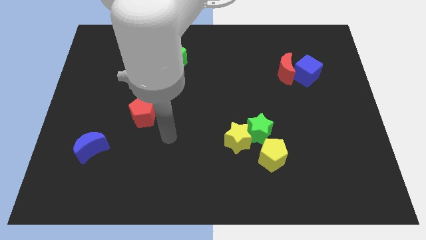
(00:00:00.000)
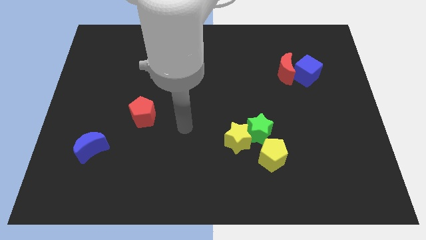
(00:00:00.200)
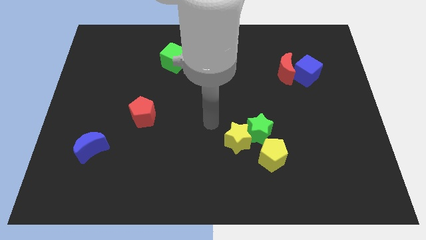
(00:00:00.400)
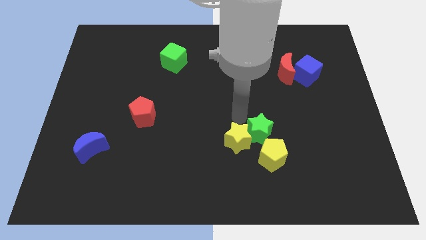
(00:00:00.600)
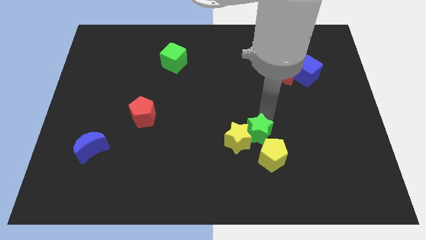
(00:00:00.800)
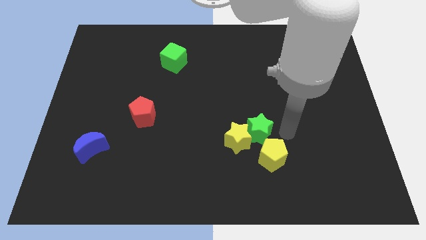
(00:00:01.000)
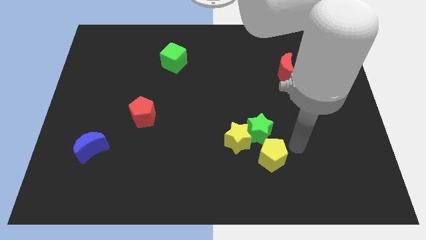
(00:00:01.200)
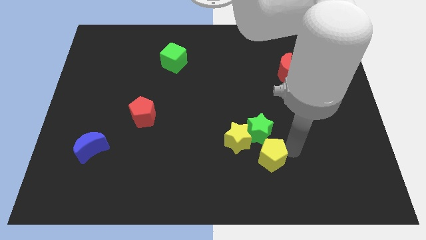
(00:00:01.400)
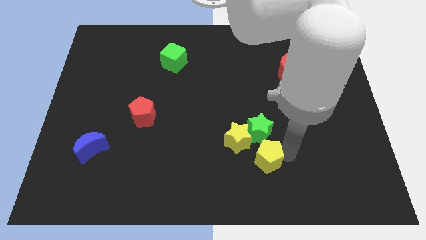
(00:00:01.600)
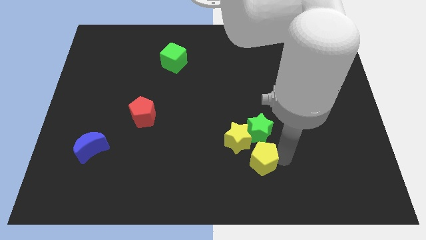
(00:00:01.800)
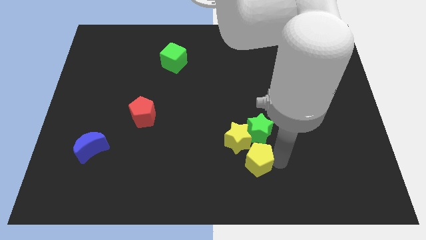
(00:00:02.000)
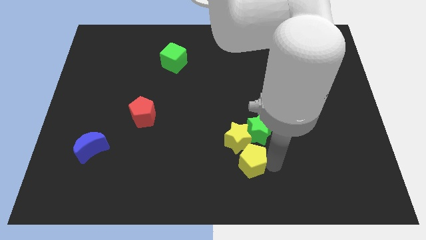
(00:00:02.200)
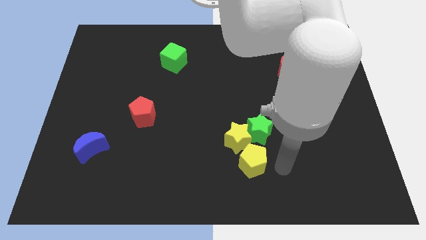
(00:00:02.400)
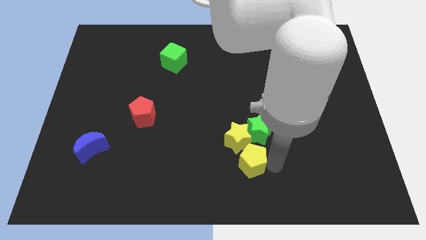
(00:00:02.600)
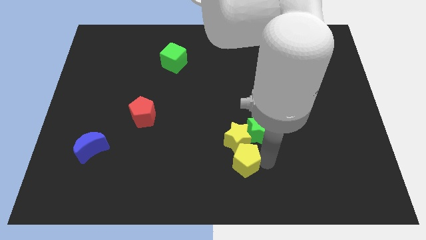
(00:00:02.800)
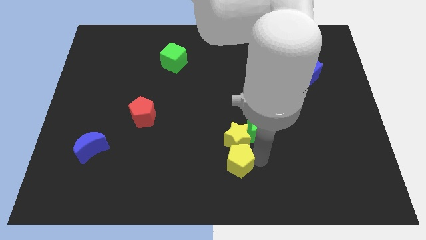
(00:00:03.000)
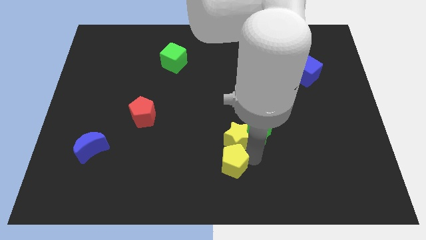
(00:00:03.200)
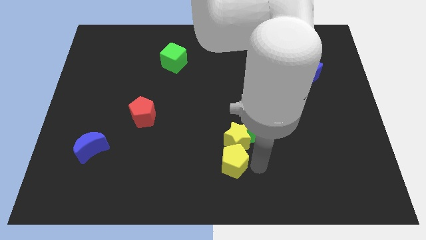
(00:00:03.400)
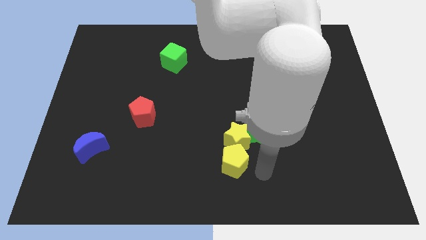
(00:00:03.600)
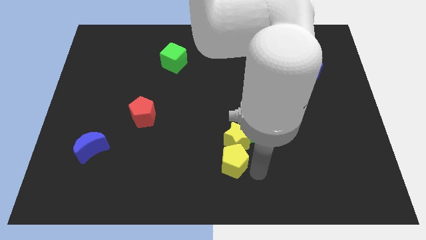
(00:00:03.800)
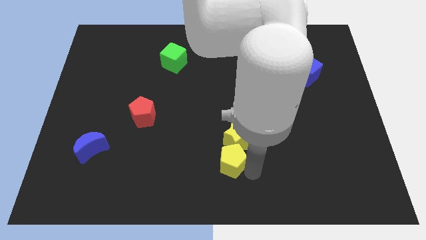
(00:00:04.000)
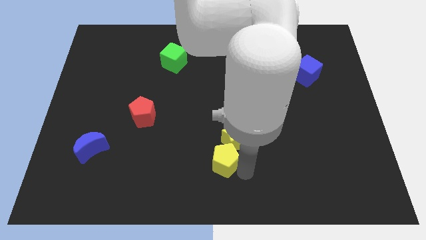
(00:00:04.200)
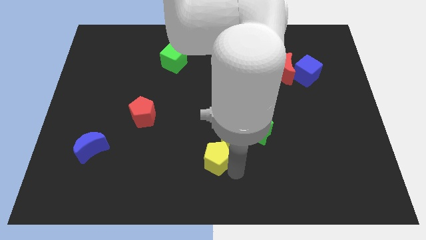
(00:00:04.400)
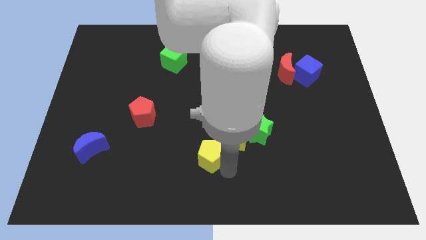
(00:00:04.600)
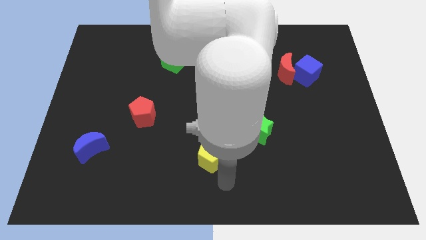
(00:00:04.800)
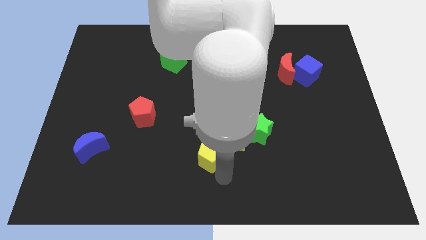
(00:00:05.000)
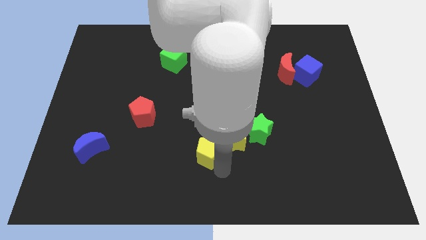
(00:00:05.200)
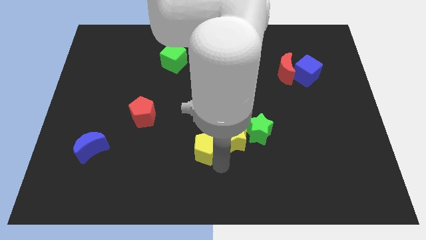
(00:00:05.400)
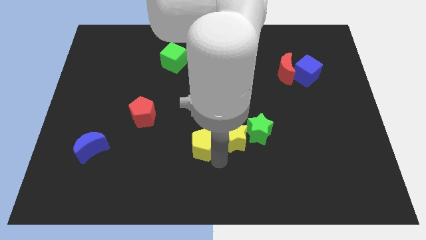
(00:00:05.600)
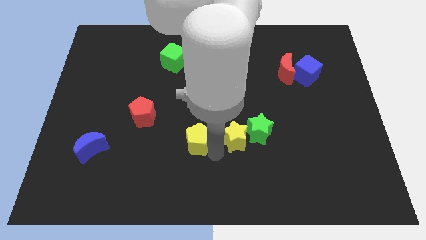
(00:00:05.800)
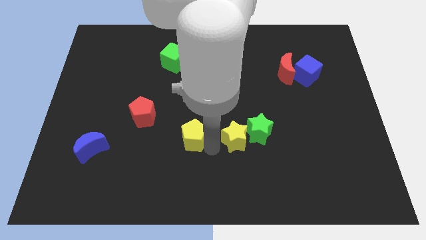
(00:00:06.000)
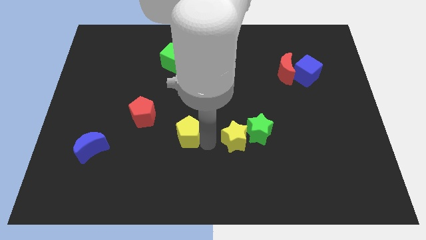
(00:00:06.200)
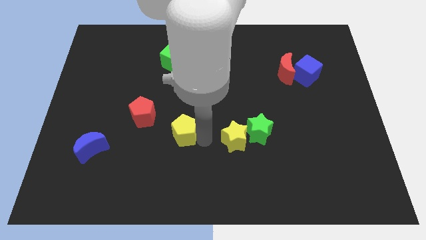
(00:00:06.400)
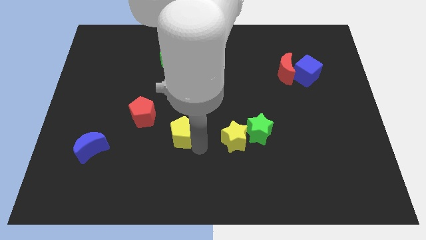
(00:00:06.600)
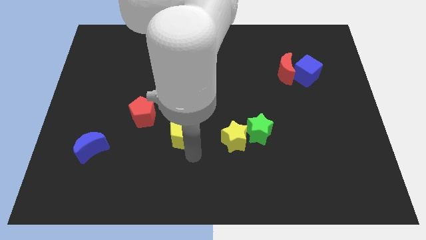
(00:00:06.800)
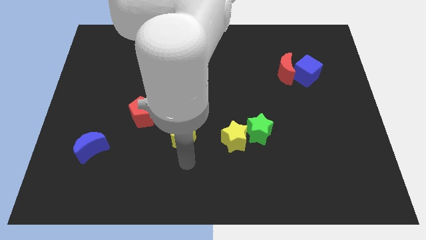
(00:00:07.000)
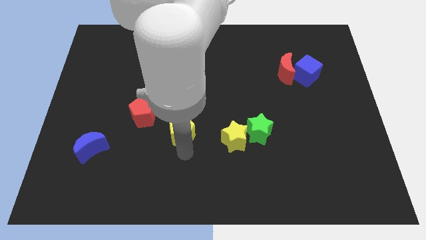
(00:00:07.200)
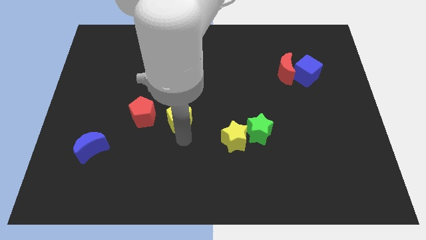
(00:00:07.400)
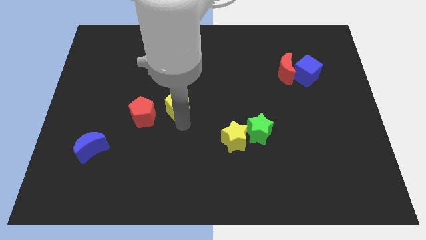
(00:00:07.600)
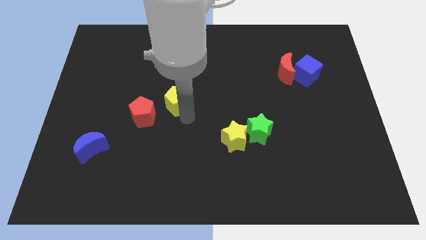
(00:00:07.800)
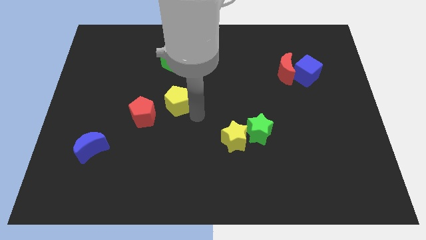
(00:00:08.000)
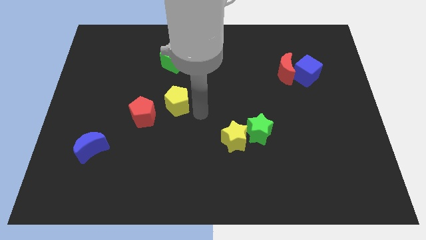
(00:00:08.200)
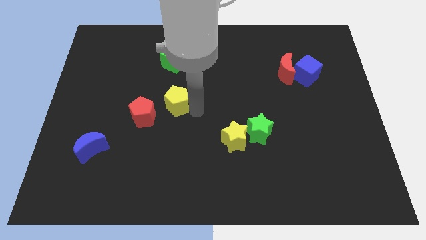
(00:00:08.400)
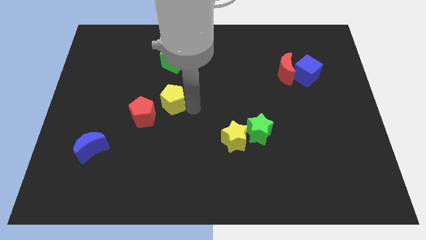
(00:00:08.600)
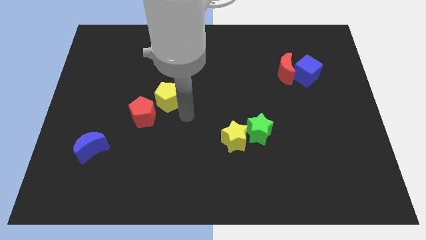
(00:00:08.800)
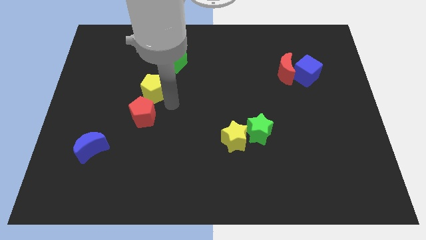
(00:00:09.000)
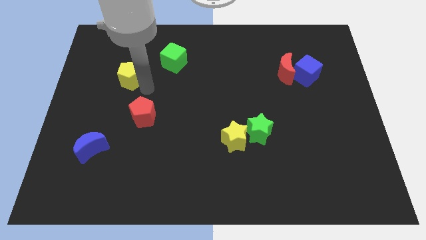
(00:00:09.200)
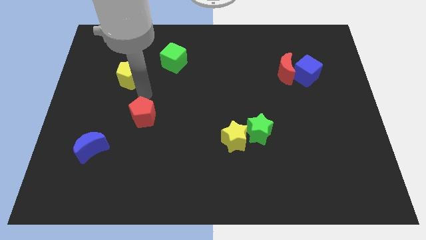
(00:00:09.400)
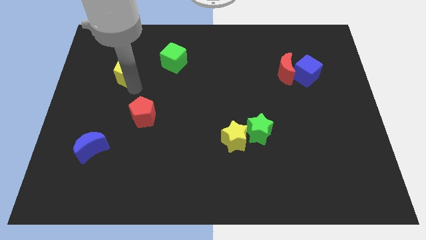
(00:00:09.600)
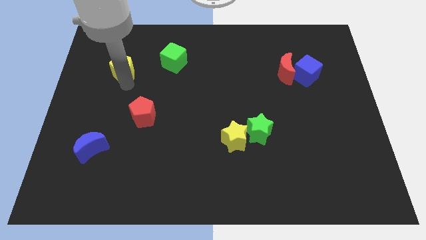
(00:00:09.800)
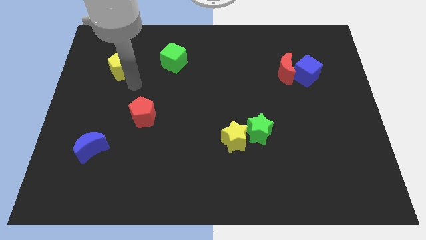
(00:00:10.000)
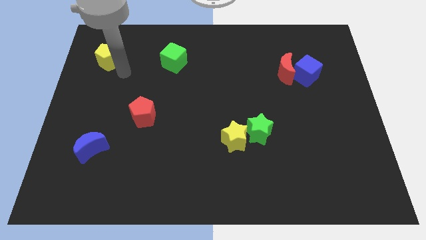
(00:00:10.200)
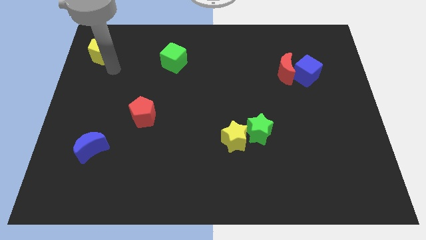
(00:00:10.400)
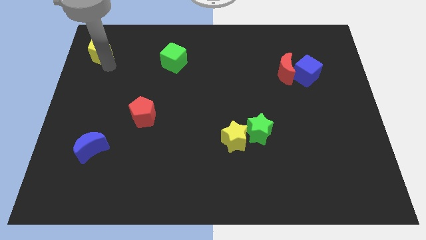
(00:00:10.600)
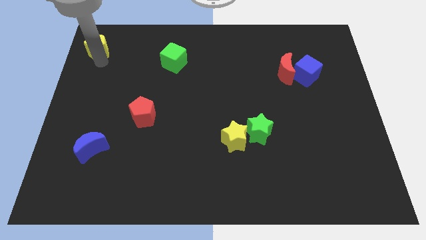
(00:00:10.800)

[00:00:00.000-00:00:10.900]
push the yellow pentagon to the top left of the board

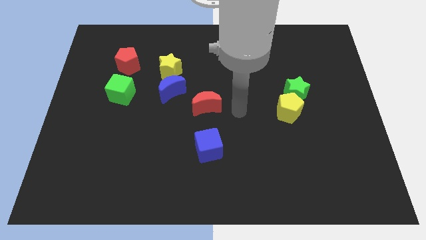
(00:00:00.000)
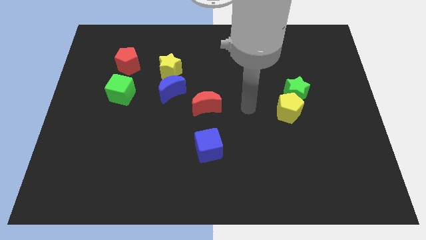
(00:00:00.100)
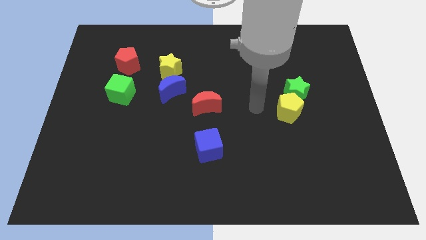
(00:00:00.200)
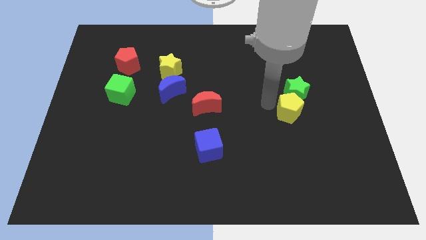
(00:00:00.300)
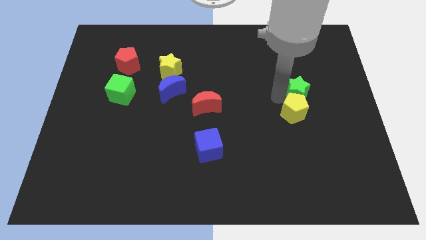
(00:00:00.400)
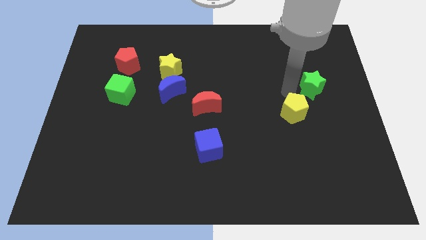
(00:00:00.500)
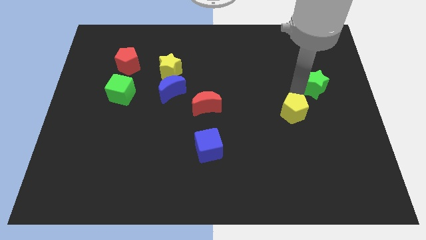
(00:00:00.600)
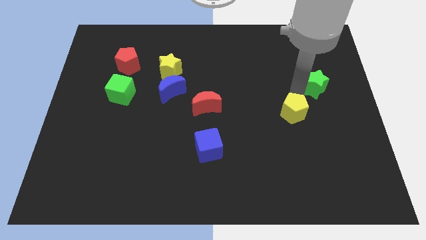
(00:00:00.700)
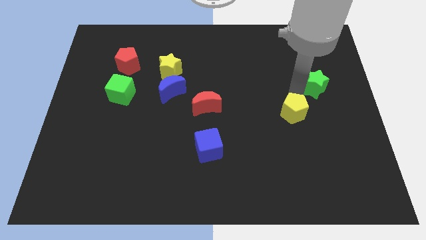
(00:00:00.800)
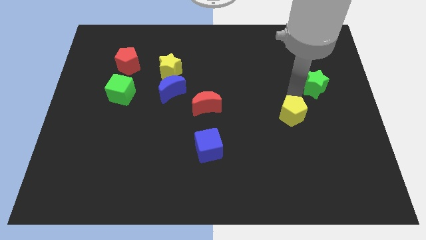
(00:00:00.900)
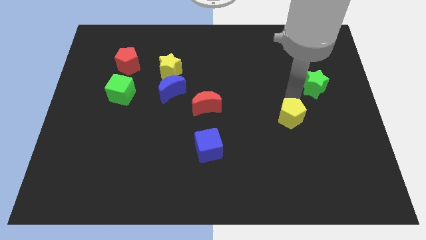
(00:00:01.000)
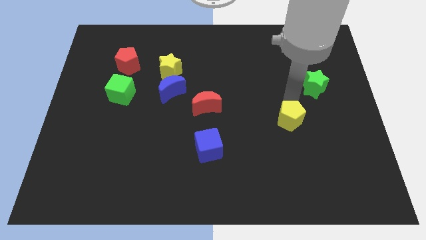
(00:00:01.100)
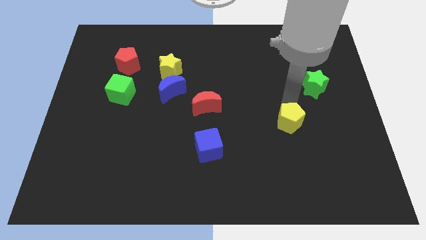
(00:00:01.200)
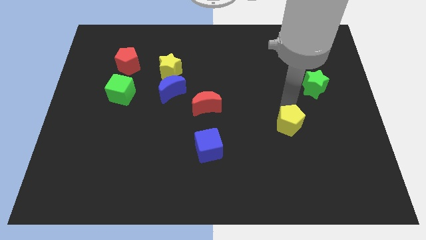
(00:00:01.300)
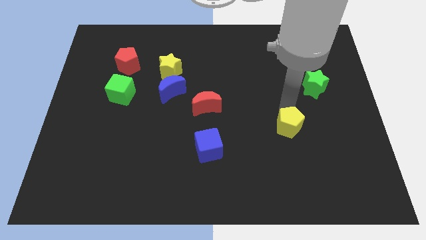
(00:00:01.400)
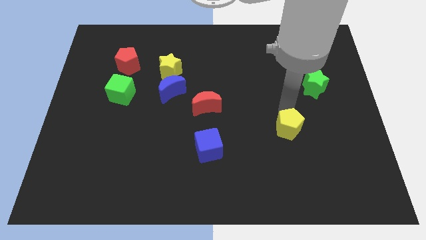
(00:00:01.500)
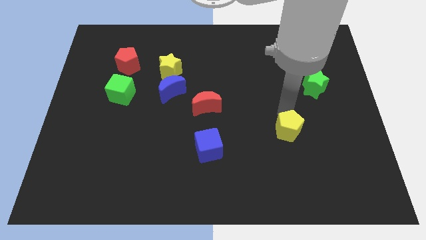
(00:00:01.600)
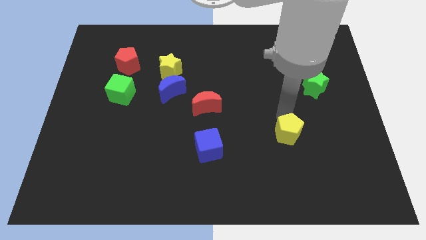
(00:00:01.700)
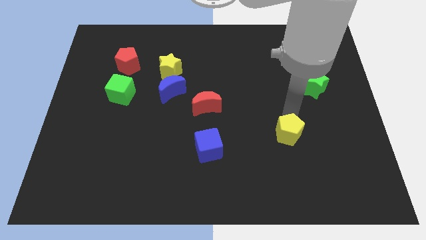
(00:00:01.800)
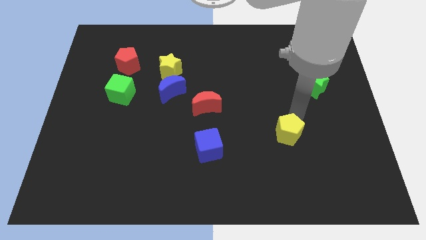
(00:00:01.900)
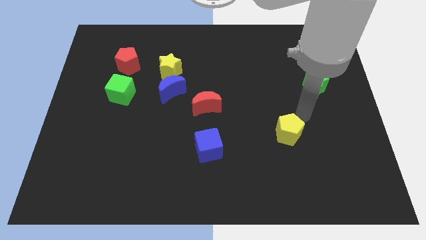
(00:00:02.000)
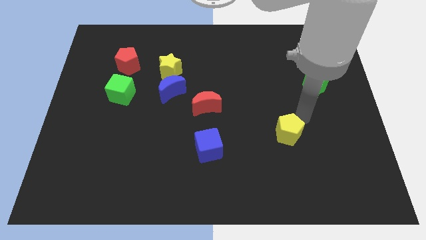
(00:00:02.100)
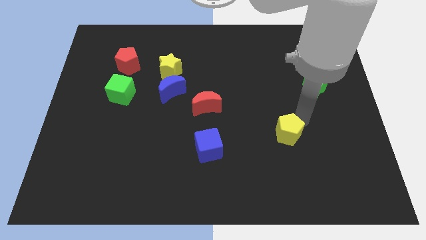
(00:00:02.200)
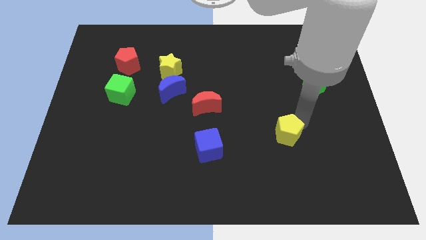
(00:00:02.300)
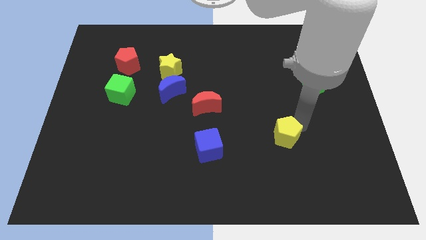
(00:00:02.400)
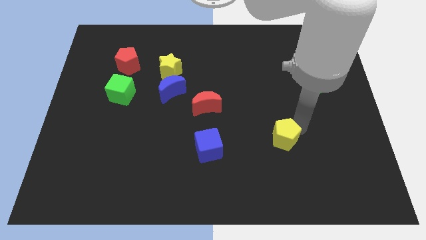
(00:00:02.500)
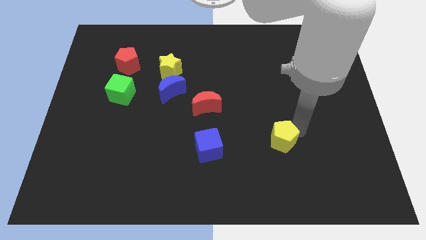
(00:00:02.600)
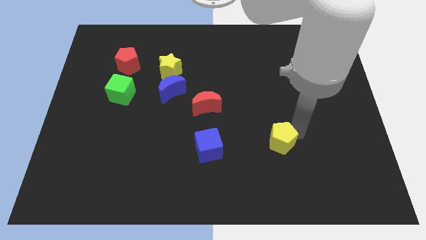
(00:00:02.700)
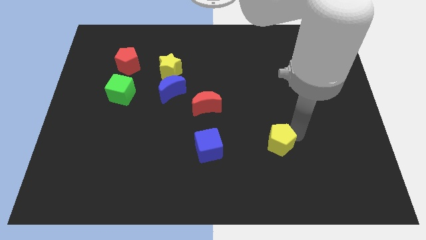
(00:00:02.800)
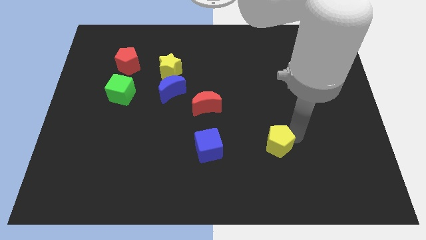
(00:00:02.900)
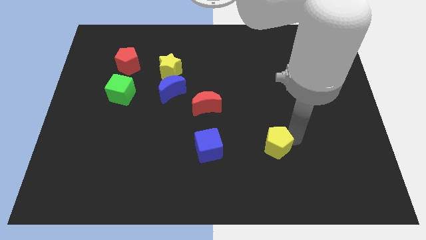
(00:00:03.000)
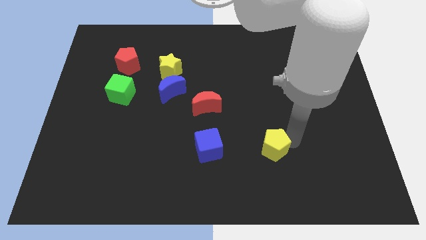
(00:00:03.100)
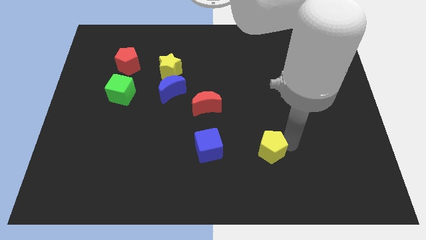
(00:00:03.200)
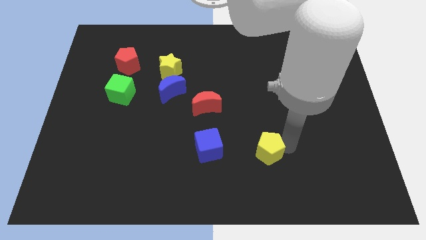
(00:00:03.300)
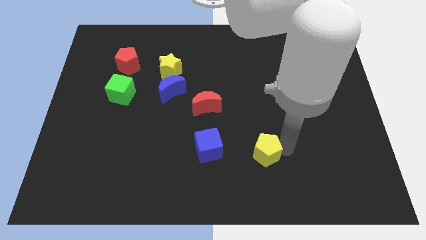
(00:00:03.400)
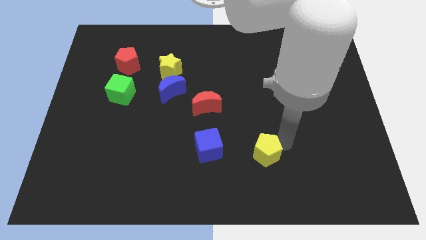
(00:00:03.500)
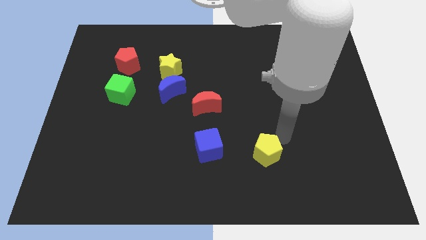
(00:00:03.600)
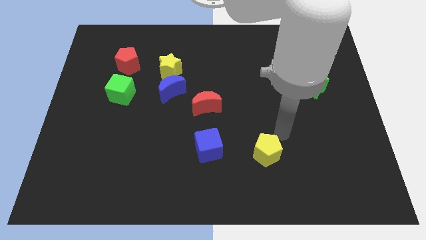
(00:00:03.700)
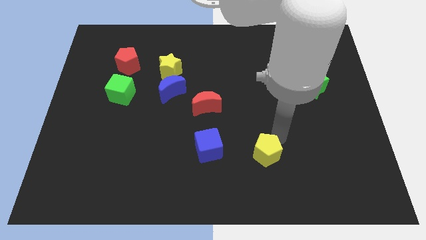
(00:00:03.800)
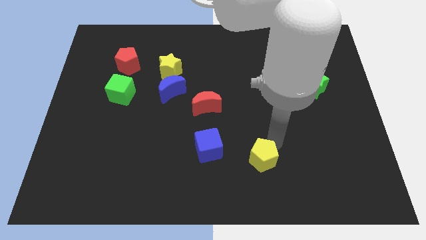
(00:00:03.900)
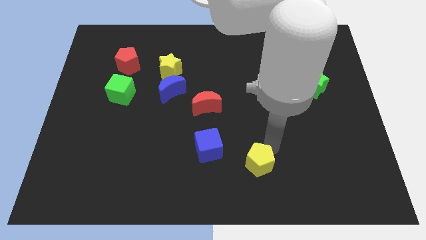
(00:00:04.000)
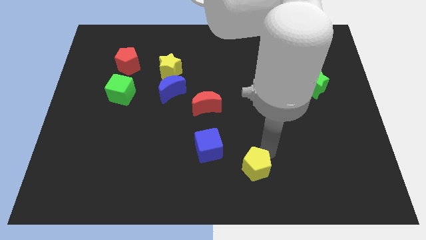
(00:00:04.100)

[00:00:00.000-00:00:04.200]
move the yellow pentagon to the bottom side
